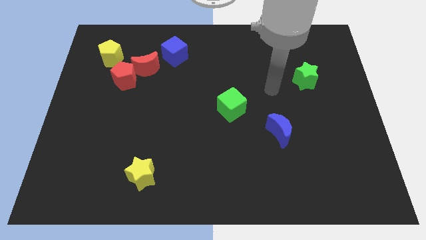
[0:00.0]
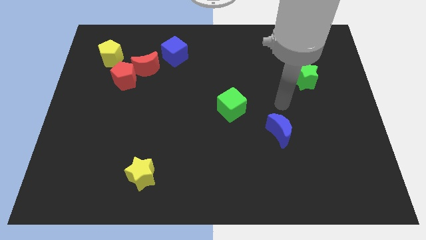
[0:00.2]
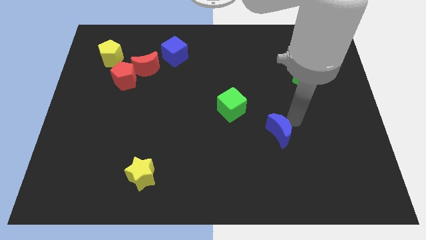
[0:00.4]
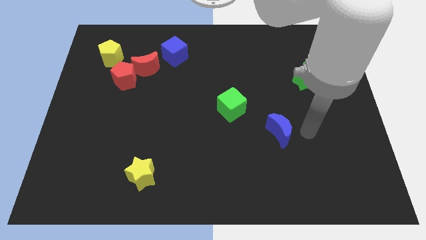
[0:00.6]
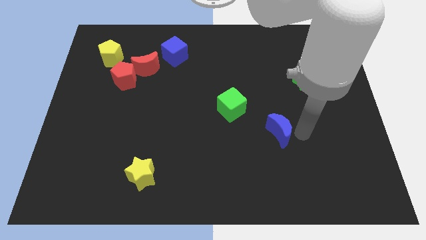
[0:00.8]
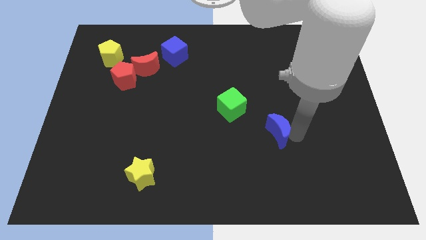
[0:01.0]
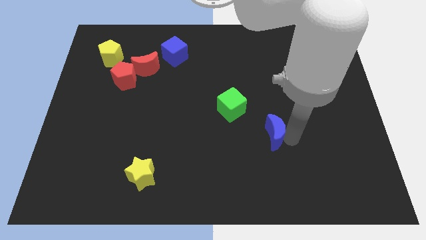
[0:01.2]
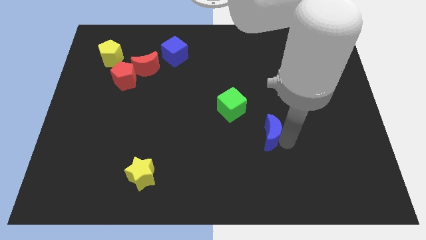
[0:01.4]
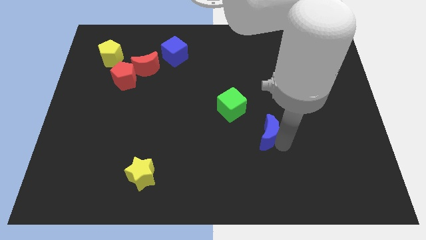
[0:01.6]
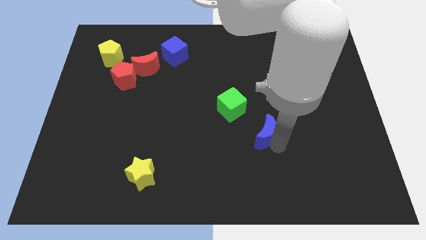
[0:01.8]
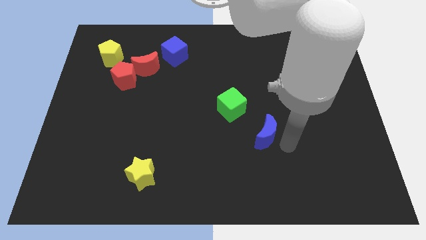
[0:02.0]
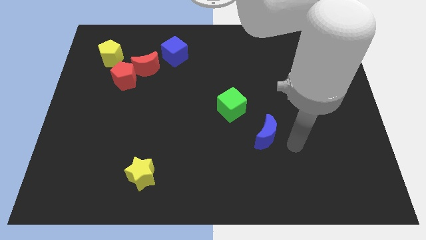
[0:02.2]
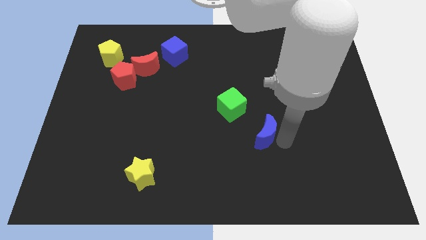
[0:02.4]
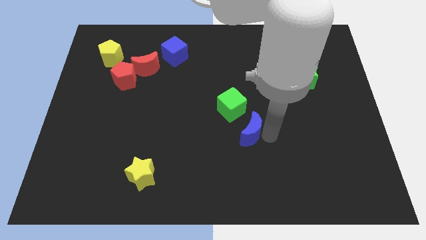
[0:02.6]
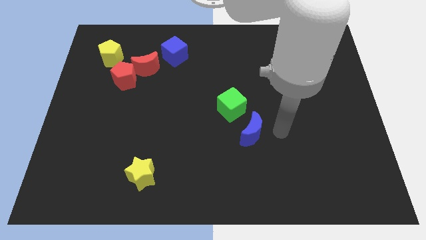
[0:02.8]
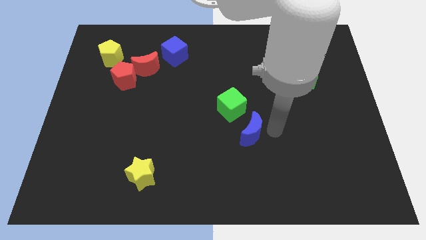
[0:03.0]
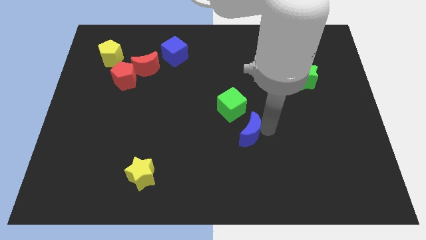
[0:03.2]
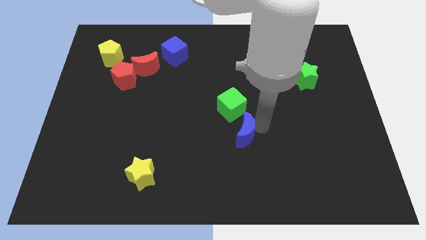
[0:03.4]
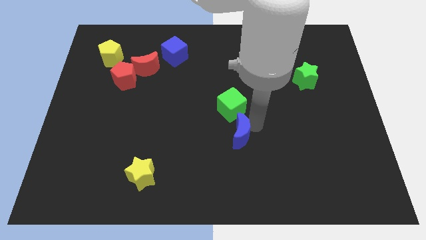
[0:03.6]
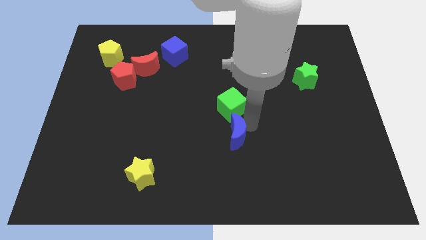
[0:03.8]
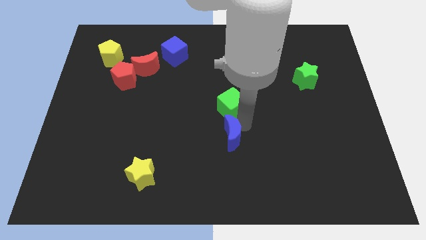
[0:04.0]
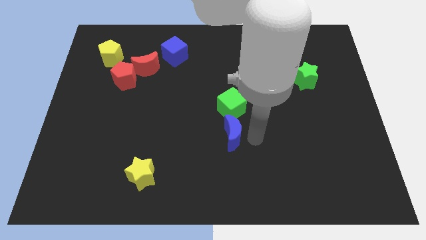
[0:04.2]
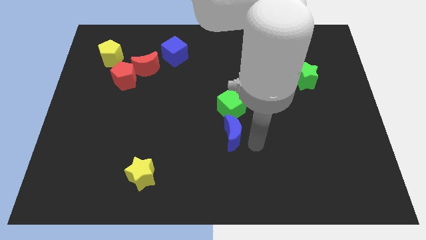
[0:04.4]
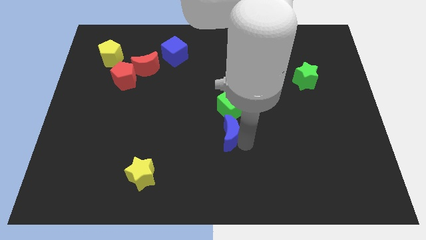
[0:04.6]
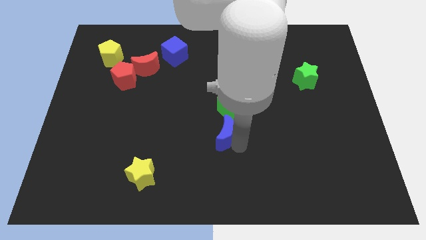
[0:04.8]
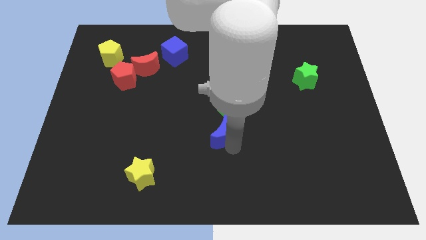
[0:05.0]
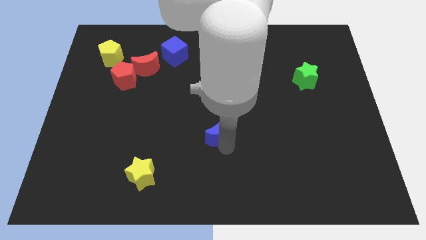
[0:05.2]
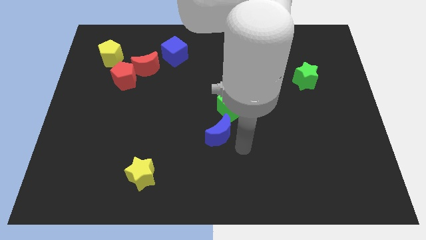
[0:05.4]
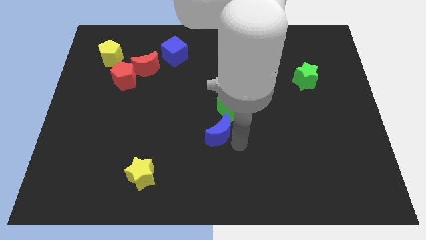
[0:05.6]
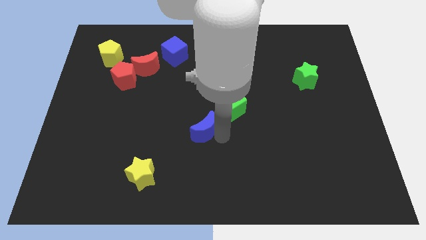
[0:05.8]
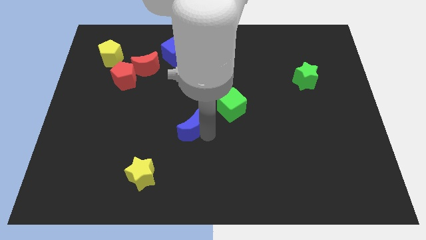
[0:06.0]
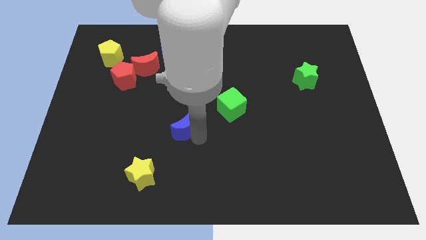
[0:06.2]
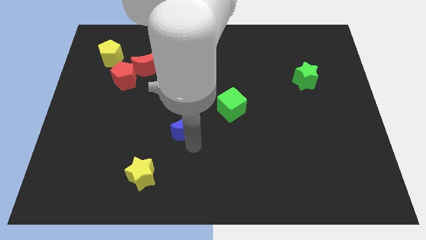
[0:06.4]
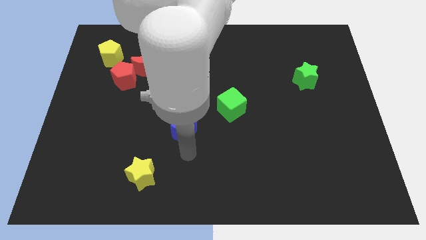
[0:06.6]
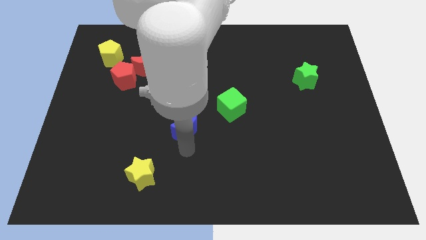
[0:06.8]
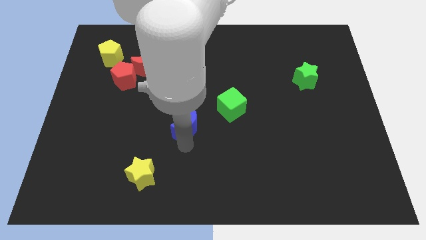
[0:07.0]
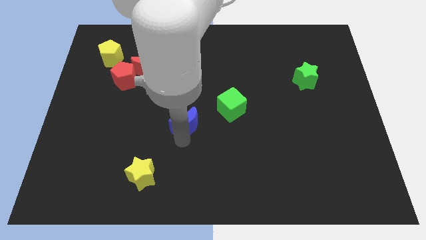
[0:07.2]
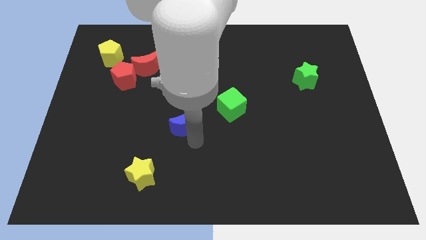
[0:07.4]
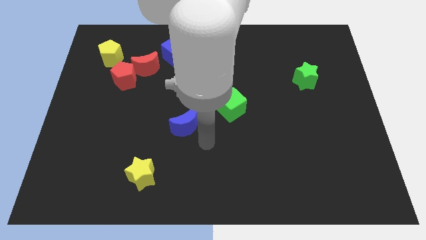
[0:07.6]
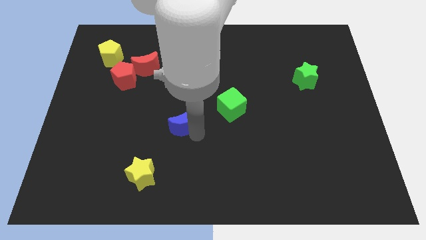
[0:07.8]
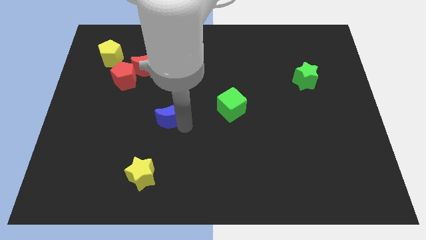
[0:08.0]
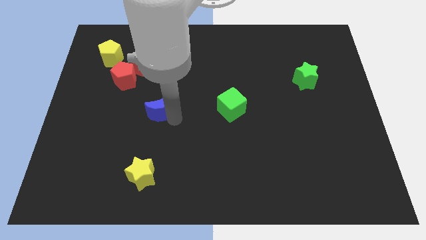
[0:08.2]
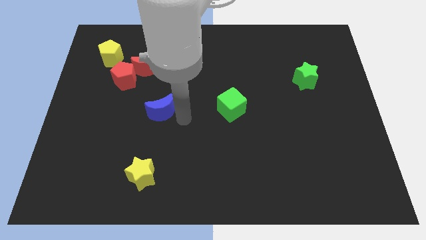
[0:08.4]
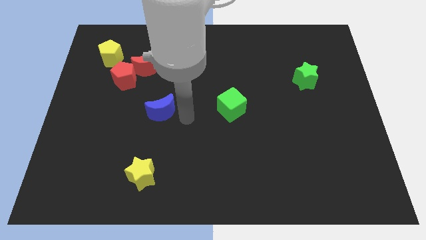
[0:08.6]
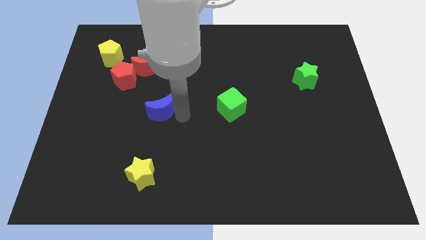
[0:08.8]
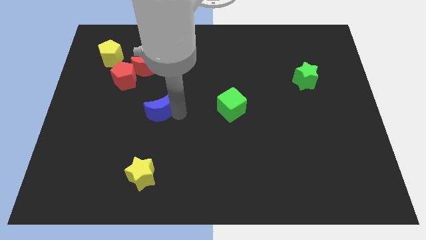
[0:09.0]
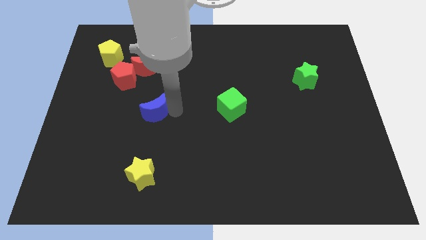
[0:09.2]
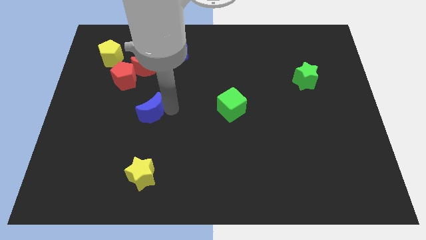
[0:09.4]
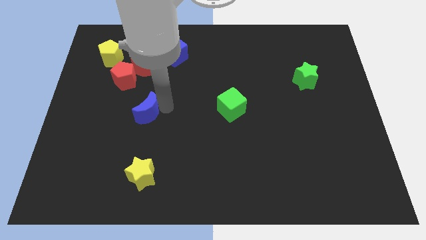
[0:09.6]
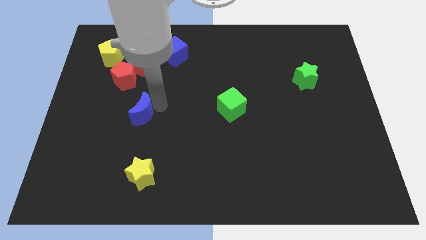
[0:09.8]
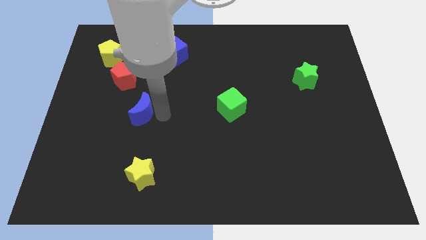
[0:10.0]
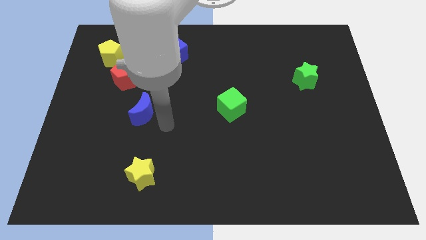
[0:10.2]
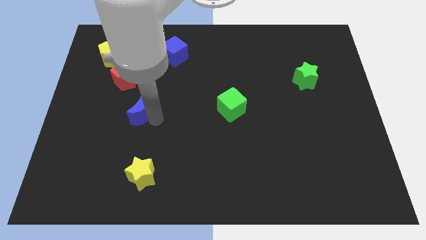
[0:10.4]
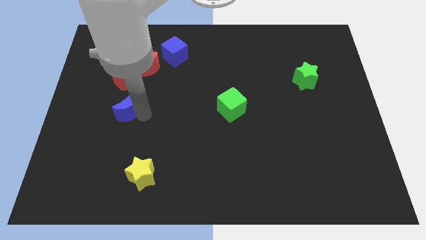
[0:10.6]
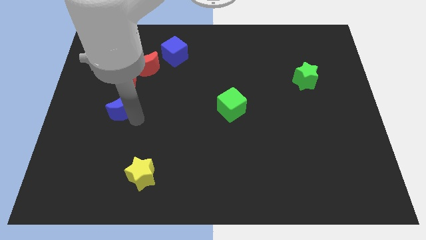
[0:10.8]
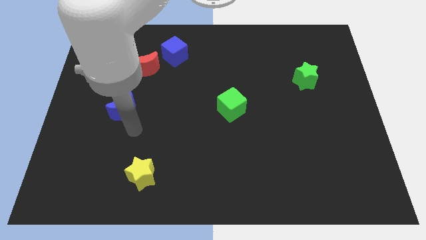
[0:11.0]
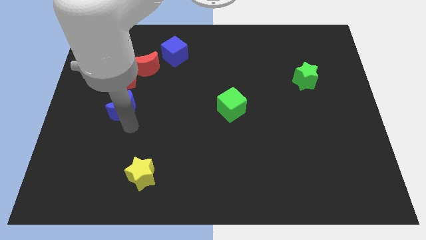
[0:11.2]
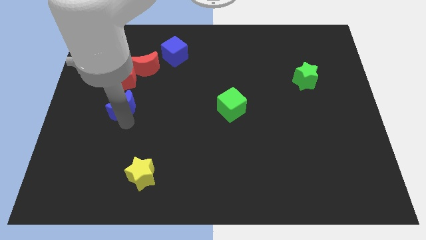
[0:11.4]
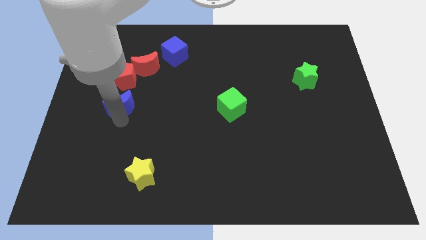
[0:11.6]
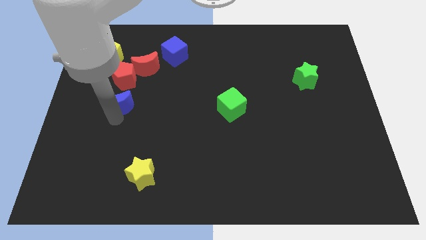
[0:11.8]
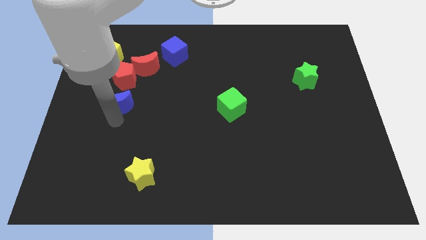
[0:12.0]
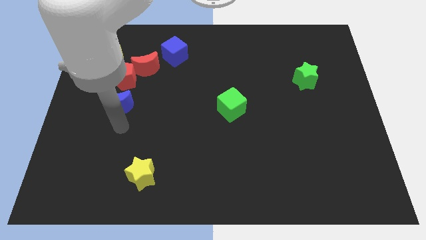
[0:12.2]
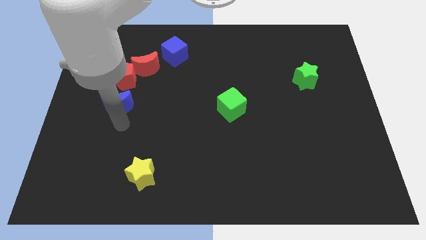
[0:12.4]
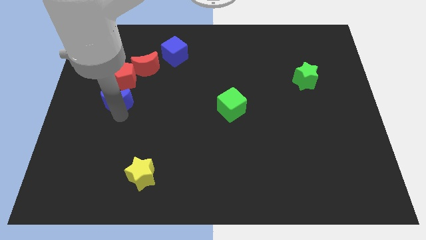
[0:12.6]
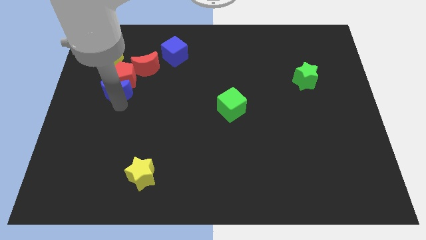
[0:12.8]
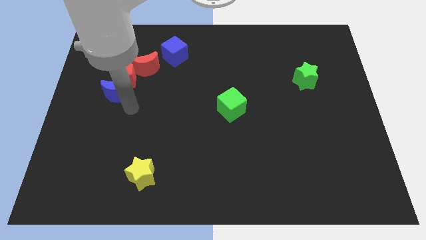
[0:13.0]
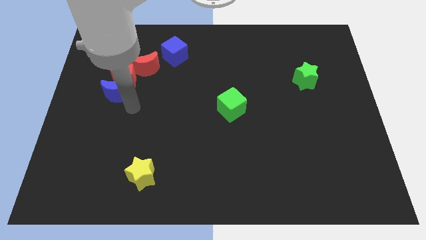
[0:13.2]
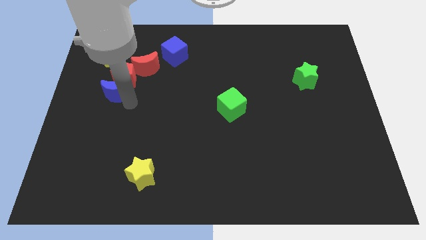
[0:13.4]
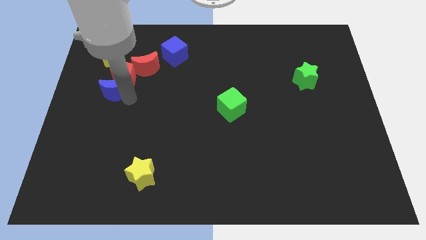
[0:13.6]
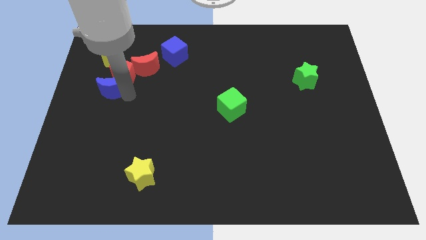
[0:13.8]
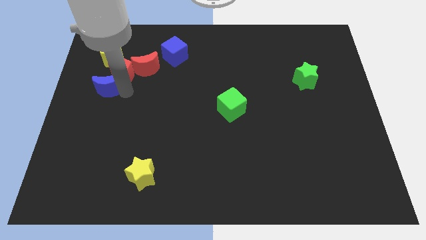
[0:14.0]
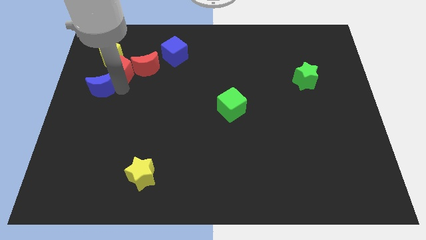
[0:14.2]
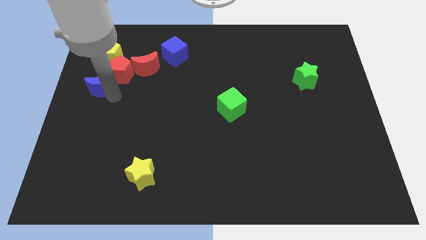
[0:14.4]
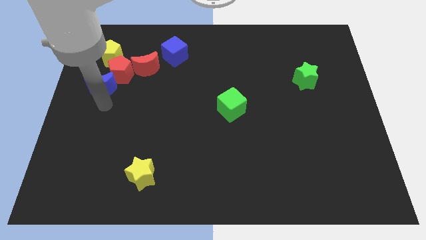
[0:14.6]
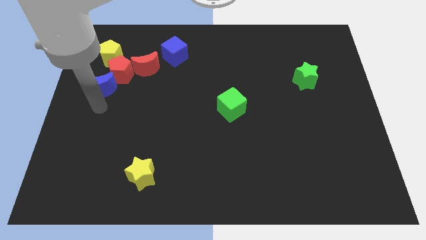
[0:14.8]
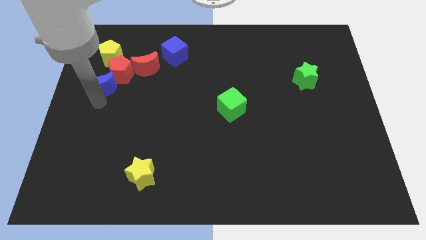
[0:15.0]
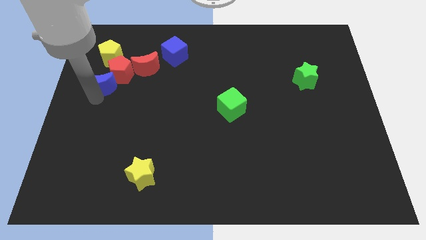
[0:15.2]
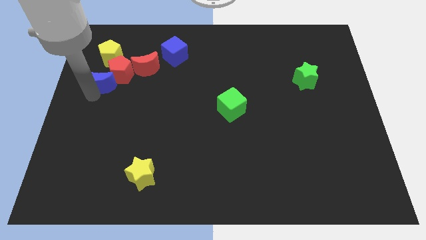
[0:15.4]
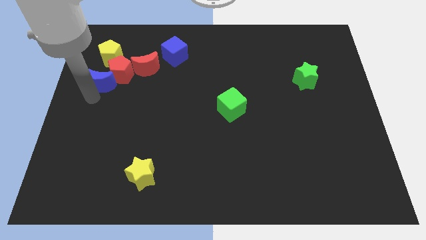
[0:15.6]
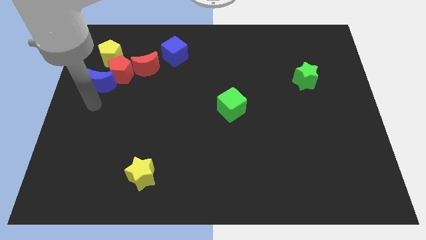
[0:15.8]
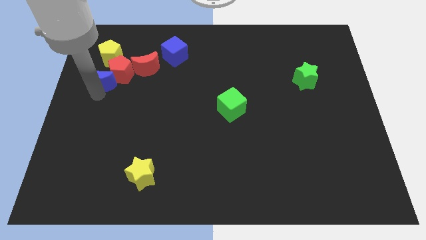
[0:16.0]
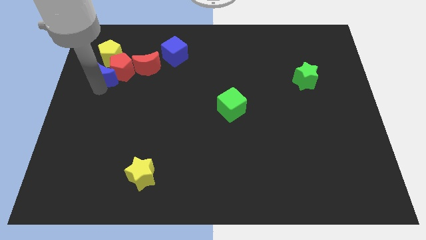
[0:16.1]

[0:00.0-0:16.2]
push the blue moon to the left of the red moon
